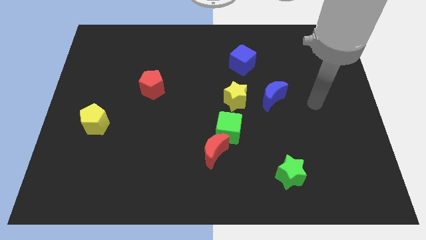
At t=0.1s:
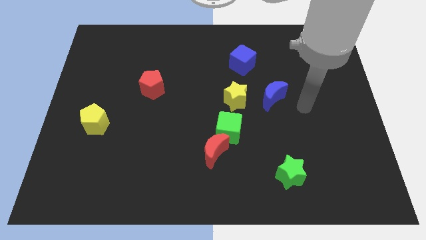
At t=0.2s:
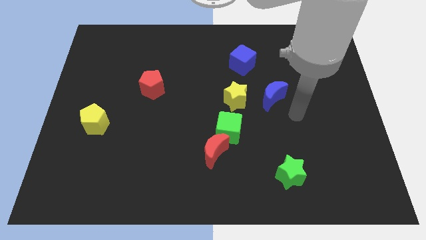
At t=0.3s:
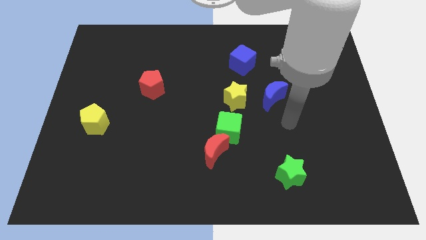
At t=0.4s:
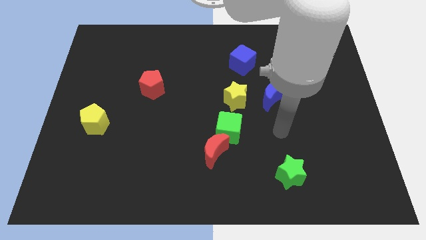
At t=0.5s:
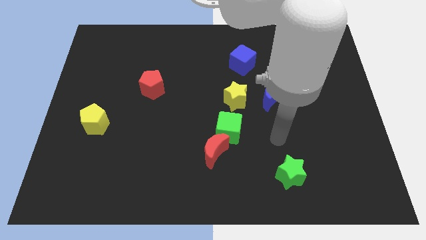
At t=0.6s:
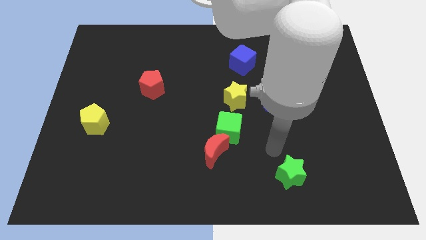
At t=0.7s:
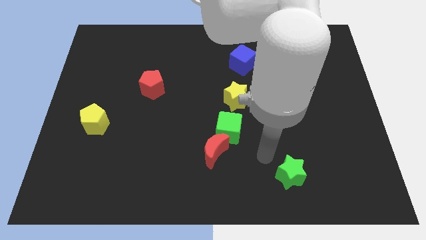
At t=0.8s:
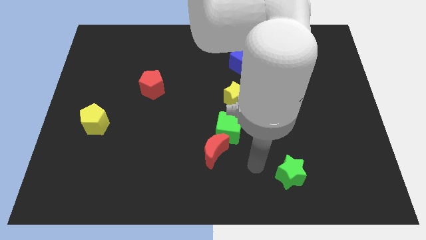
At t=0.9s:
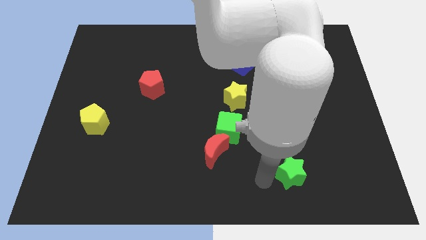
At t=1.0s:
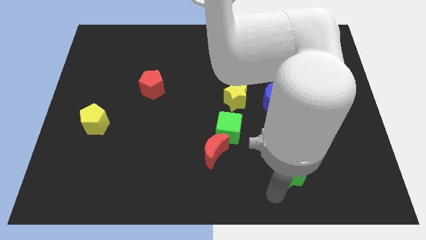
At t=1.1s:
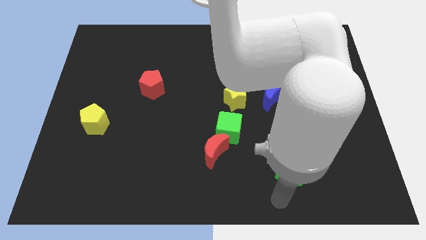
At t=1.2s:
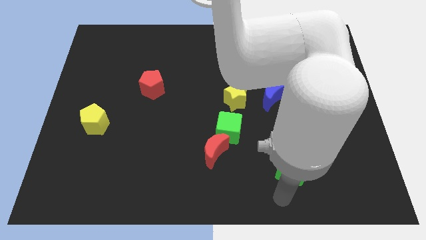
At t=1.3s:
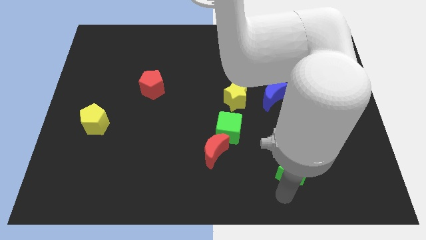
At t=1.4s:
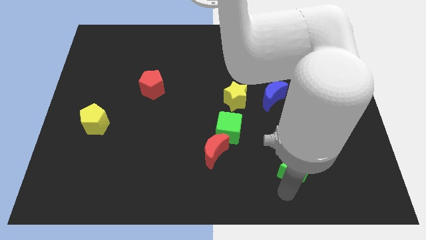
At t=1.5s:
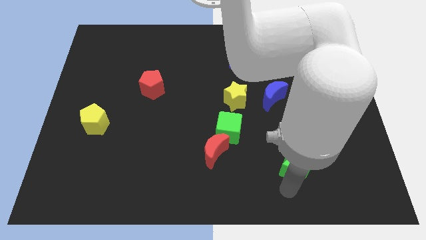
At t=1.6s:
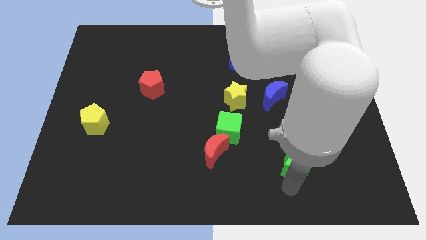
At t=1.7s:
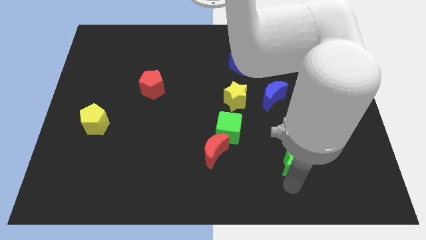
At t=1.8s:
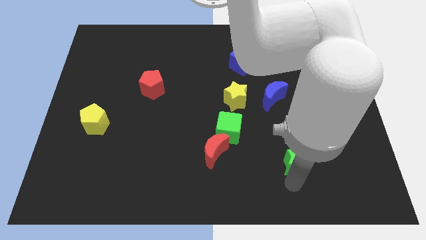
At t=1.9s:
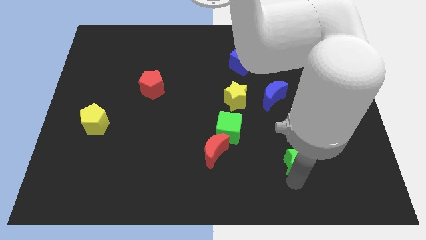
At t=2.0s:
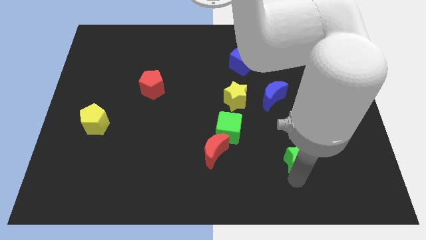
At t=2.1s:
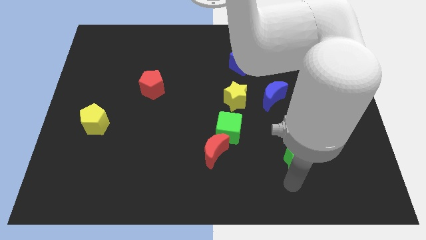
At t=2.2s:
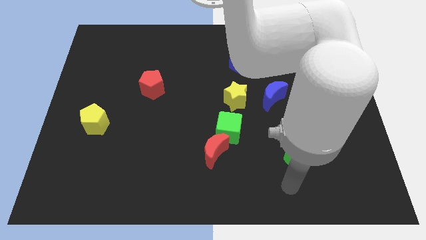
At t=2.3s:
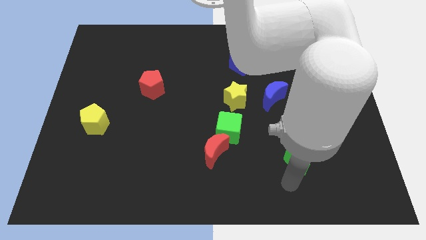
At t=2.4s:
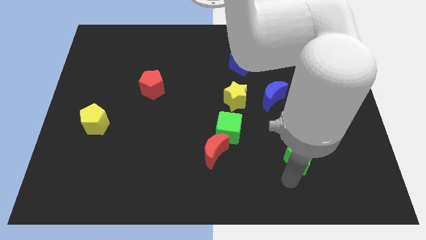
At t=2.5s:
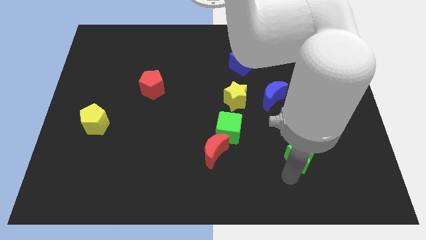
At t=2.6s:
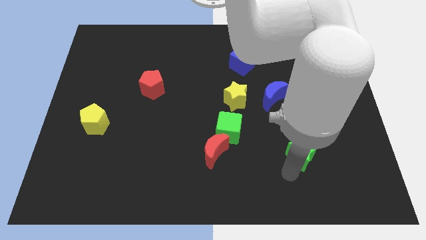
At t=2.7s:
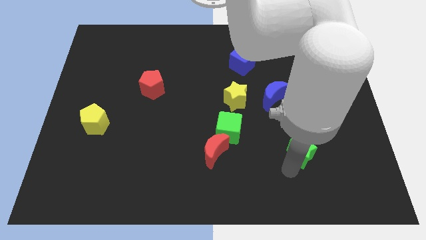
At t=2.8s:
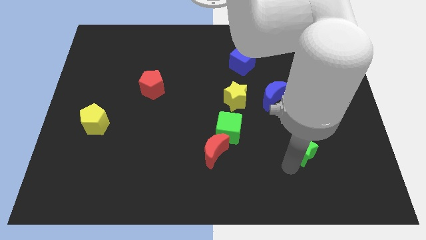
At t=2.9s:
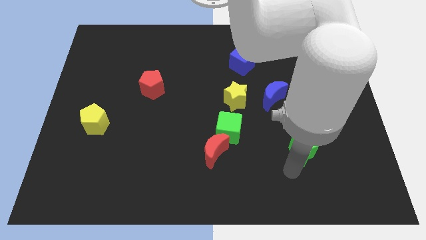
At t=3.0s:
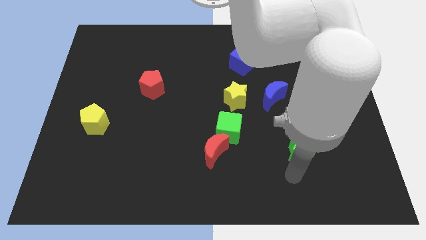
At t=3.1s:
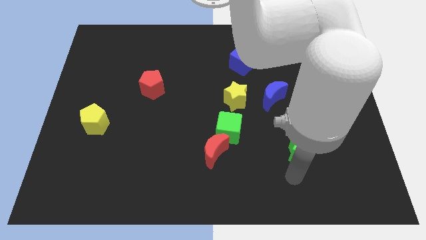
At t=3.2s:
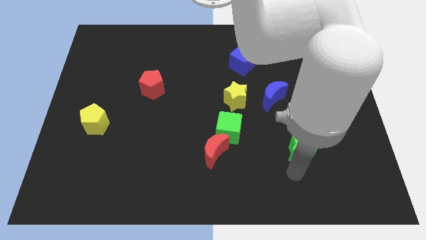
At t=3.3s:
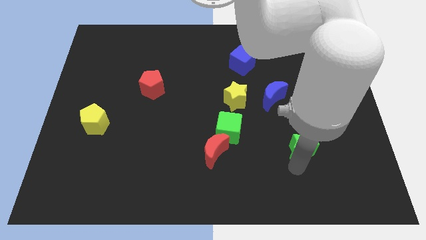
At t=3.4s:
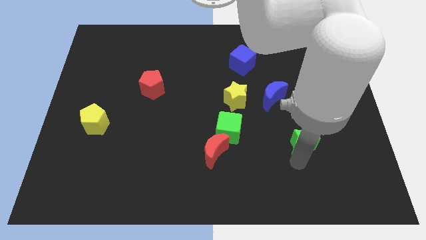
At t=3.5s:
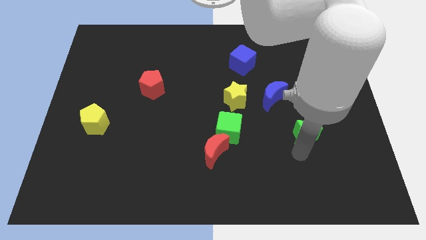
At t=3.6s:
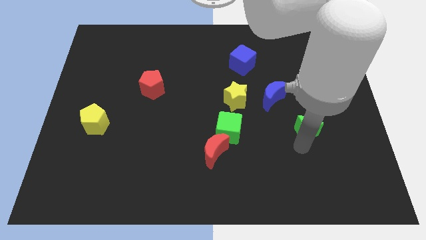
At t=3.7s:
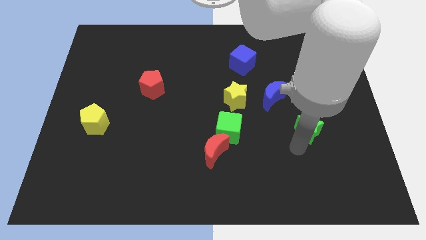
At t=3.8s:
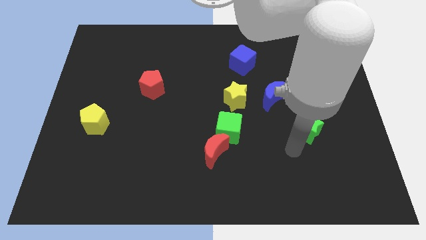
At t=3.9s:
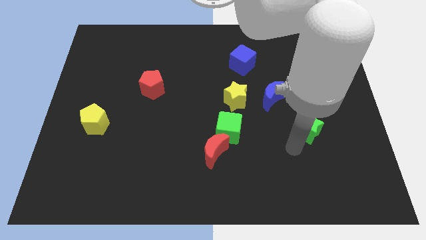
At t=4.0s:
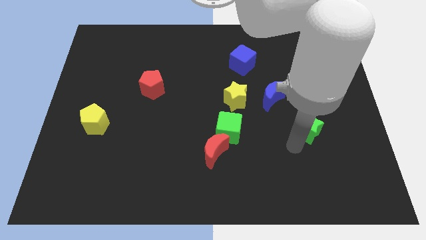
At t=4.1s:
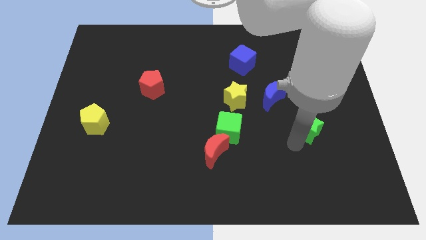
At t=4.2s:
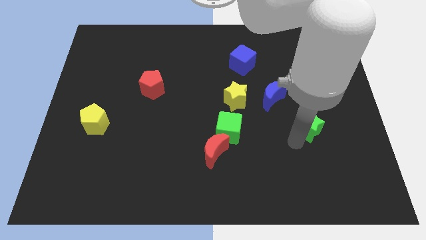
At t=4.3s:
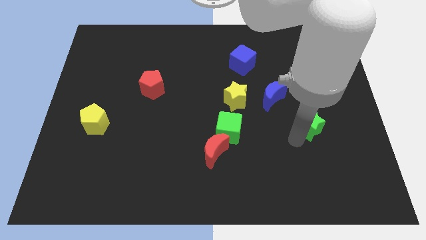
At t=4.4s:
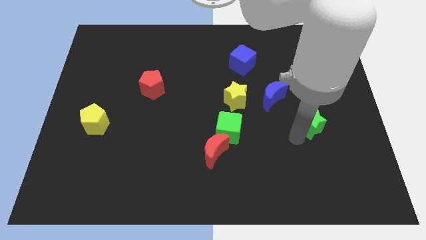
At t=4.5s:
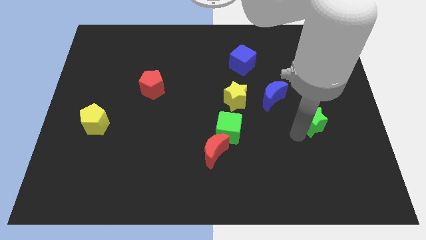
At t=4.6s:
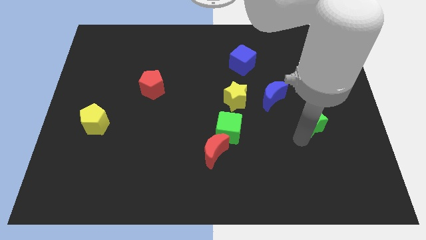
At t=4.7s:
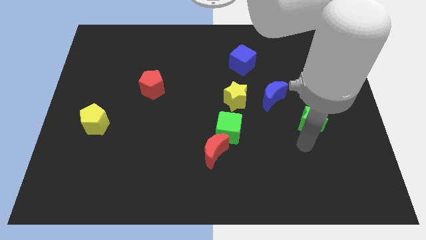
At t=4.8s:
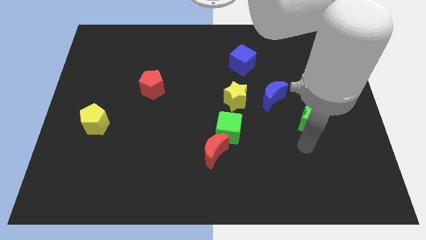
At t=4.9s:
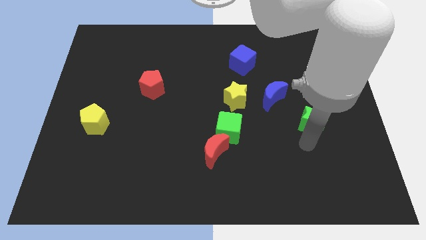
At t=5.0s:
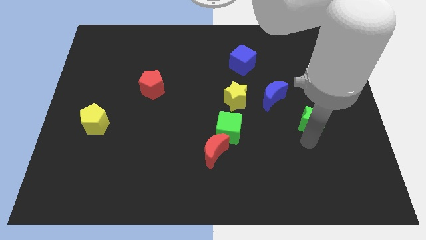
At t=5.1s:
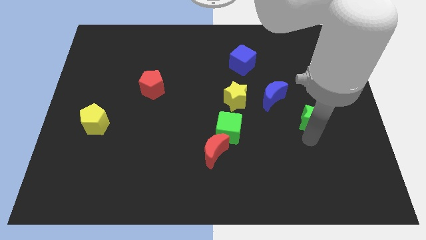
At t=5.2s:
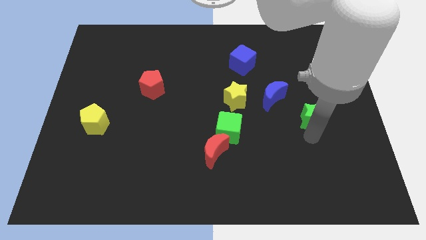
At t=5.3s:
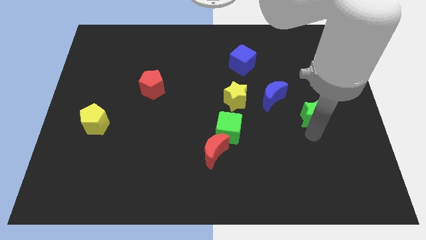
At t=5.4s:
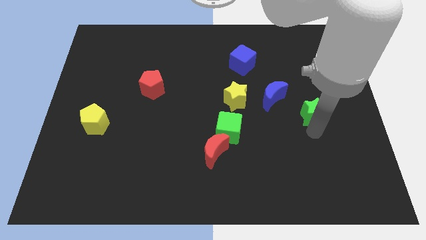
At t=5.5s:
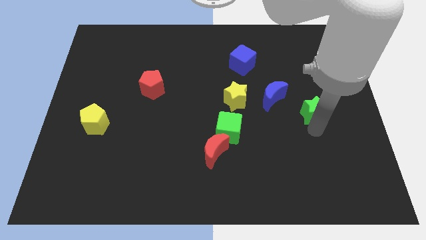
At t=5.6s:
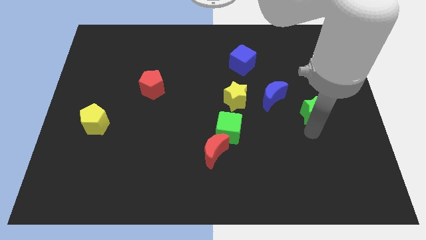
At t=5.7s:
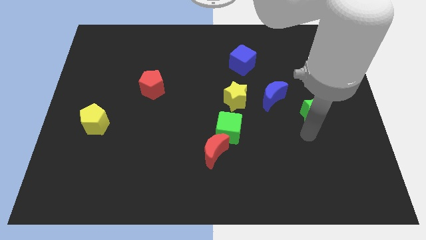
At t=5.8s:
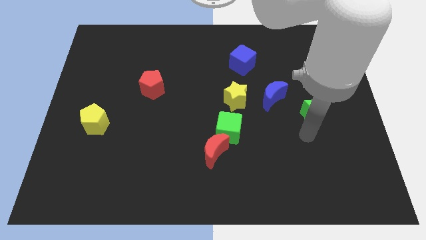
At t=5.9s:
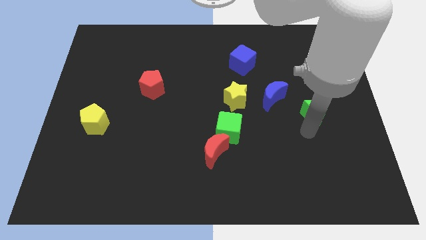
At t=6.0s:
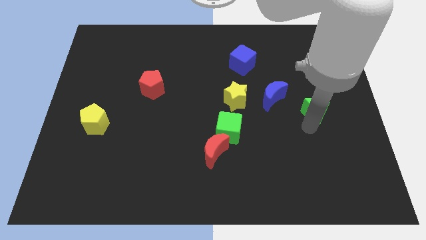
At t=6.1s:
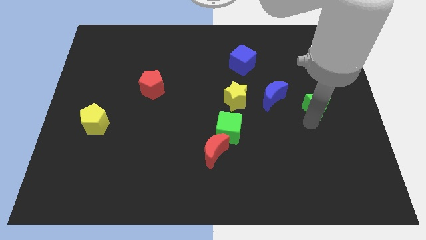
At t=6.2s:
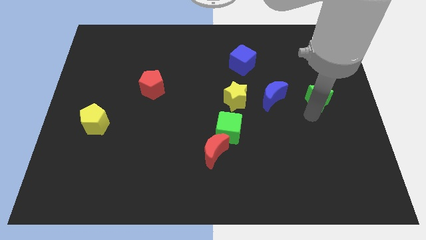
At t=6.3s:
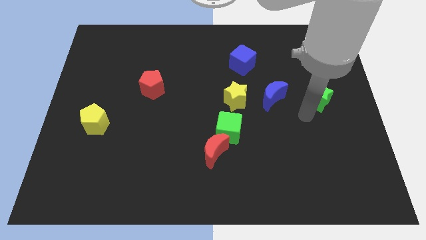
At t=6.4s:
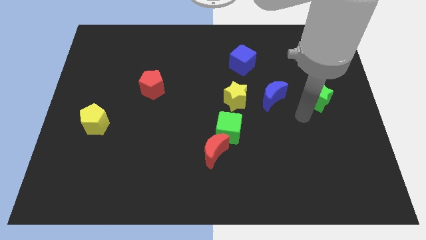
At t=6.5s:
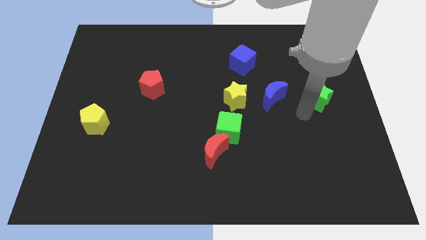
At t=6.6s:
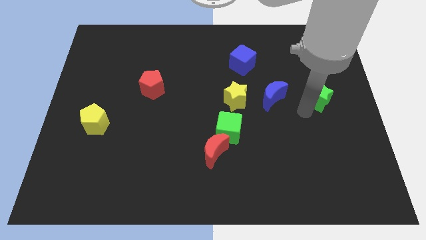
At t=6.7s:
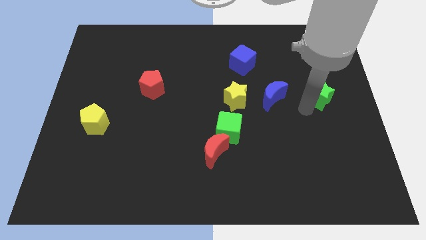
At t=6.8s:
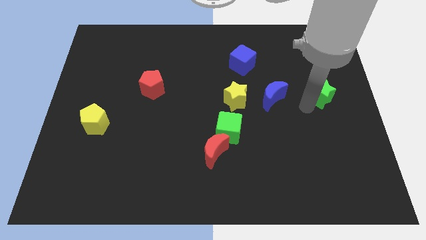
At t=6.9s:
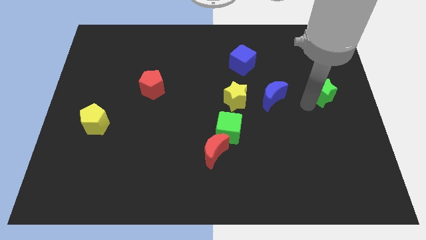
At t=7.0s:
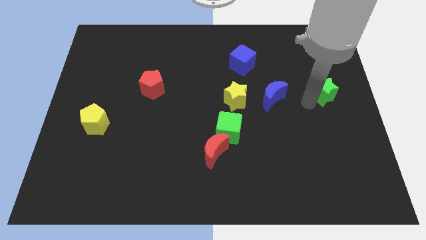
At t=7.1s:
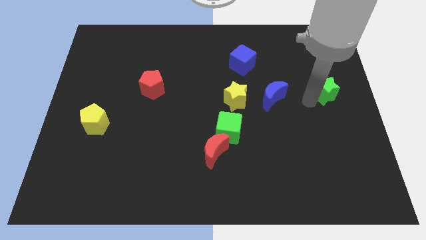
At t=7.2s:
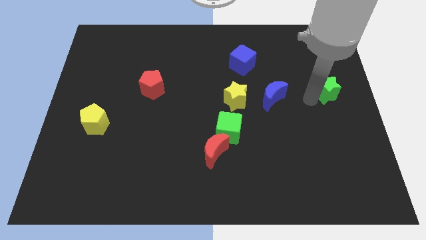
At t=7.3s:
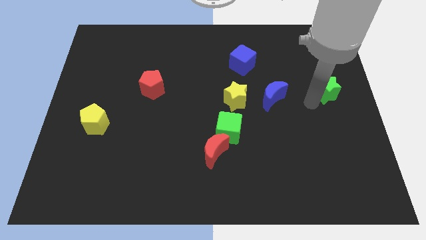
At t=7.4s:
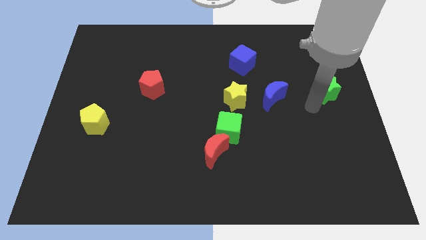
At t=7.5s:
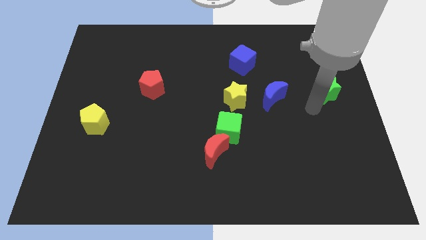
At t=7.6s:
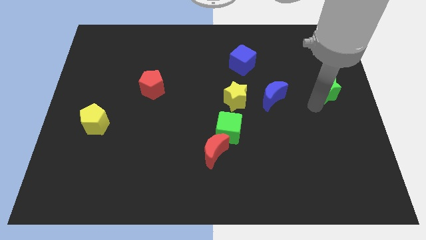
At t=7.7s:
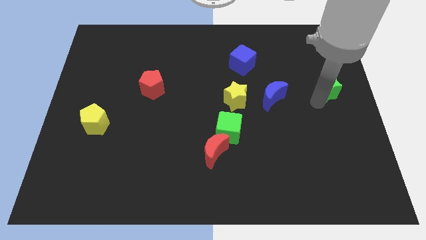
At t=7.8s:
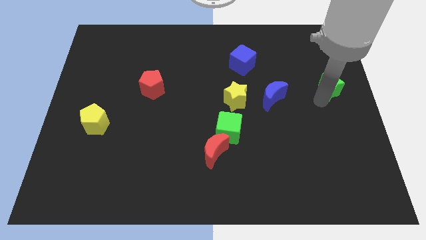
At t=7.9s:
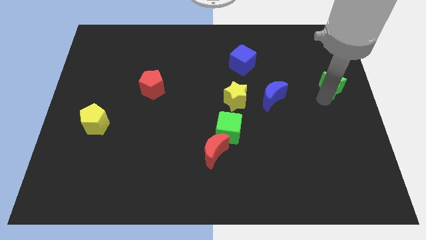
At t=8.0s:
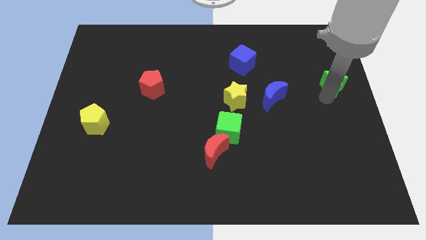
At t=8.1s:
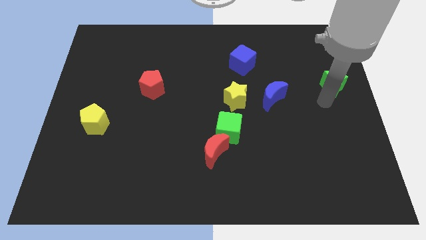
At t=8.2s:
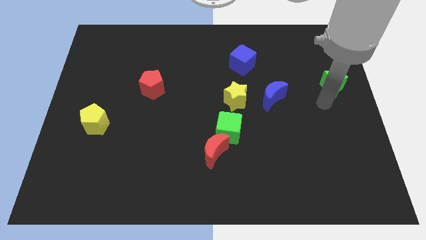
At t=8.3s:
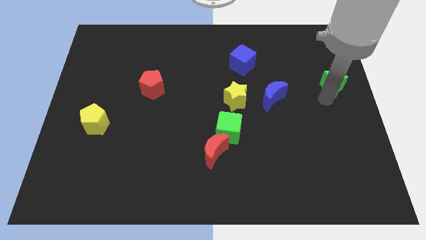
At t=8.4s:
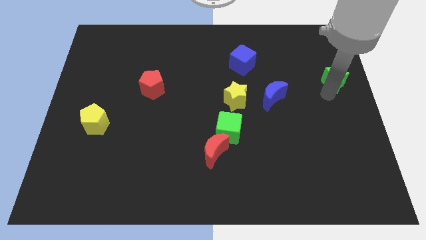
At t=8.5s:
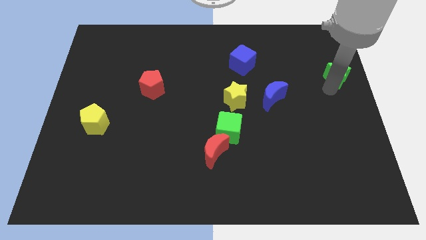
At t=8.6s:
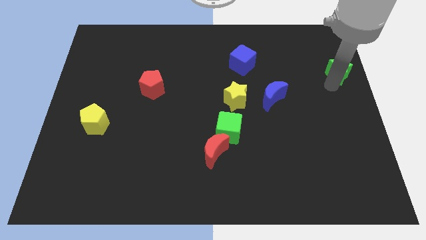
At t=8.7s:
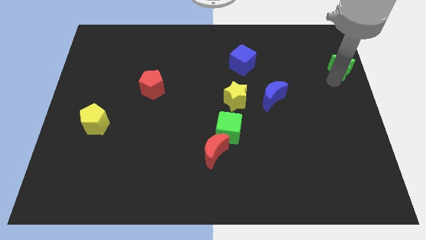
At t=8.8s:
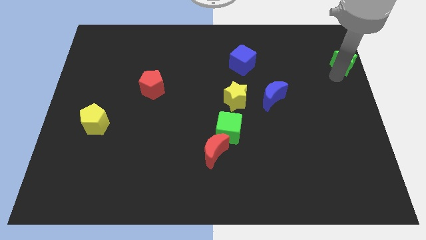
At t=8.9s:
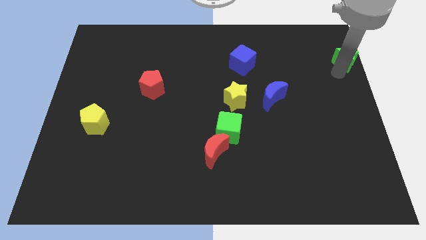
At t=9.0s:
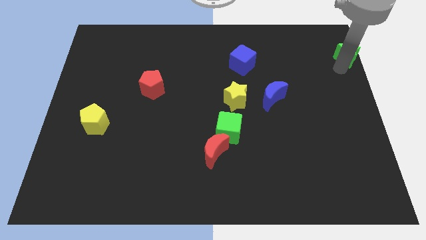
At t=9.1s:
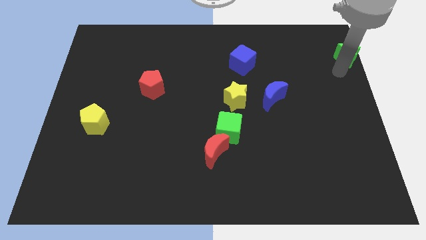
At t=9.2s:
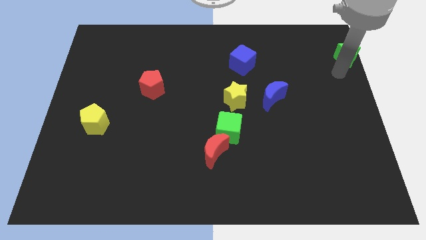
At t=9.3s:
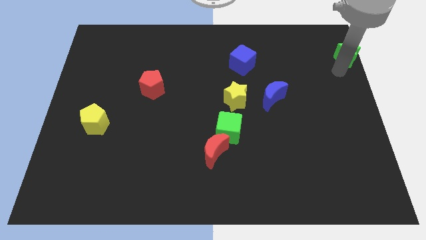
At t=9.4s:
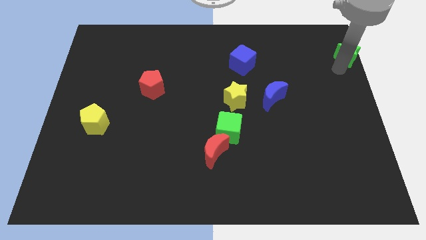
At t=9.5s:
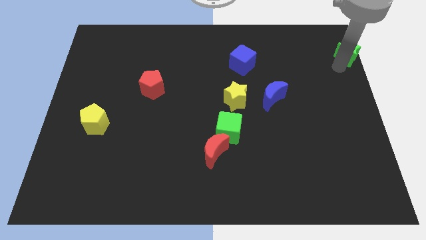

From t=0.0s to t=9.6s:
slide the green star to the top right
